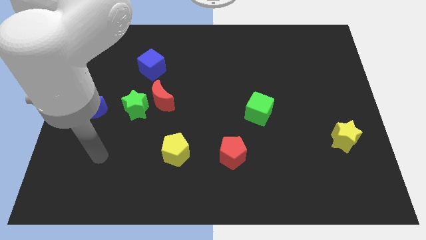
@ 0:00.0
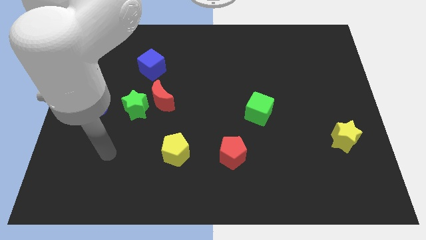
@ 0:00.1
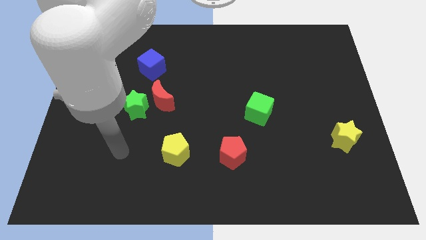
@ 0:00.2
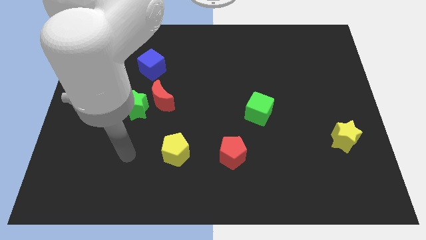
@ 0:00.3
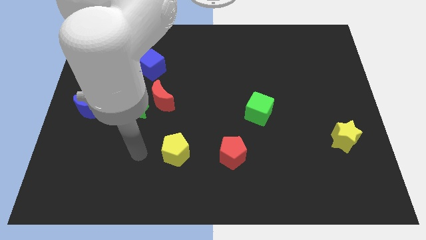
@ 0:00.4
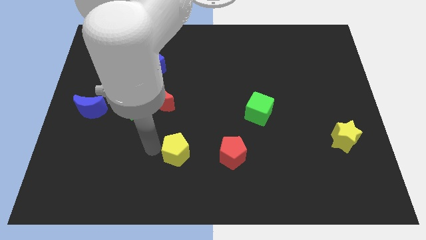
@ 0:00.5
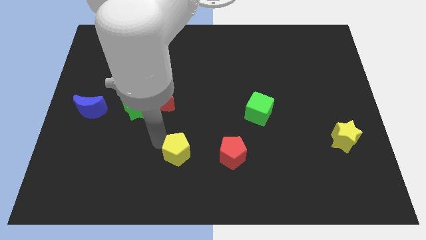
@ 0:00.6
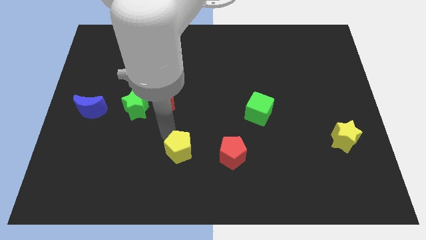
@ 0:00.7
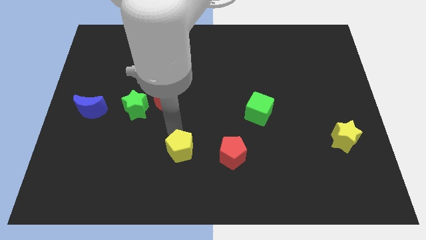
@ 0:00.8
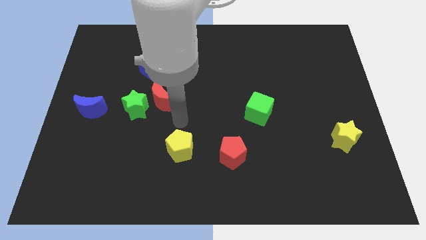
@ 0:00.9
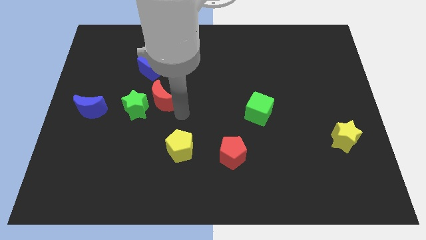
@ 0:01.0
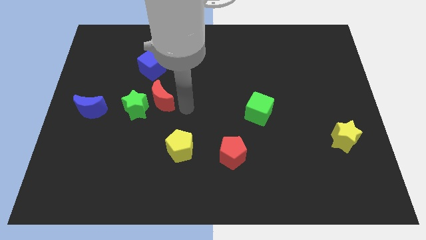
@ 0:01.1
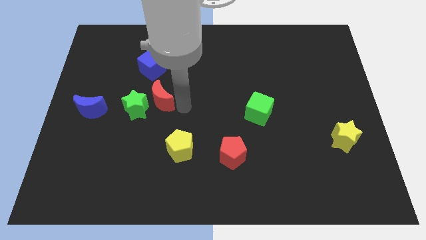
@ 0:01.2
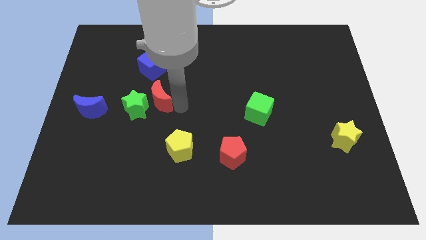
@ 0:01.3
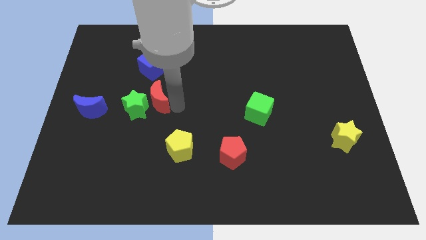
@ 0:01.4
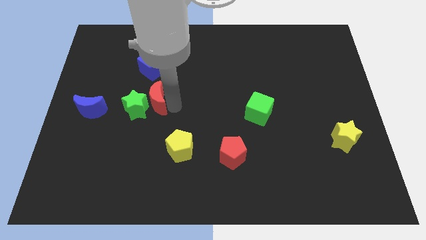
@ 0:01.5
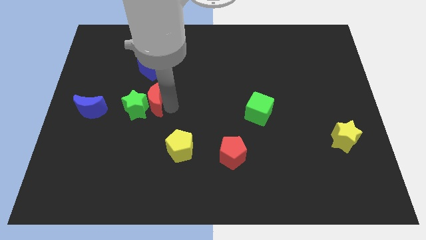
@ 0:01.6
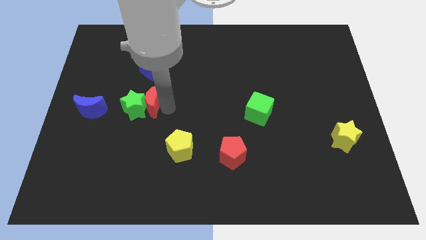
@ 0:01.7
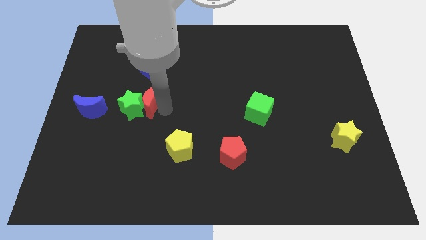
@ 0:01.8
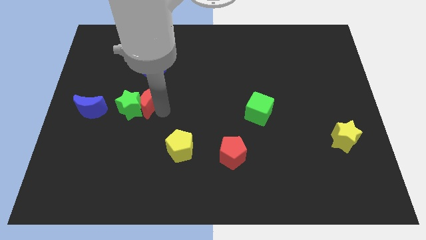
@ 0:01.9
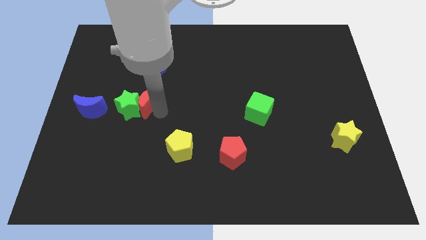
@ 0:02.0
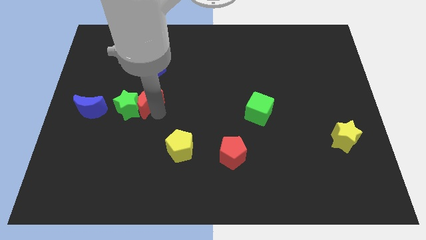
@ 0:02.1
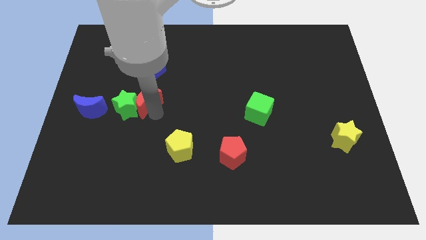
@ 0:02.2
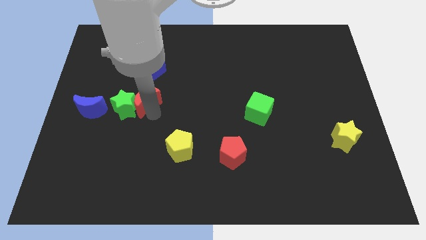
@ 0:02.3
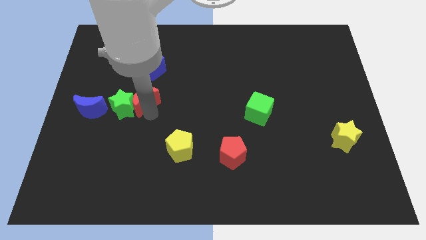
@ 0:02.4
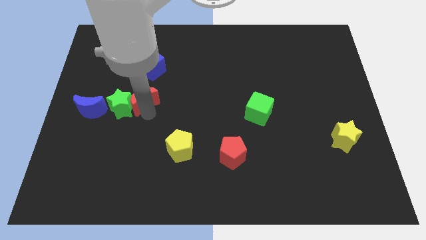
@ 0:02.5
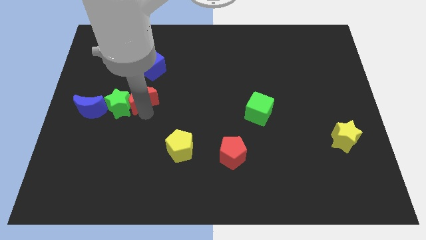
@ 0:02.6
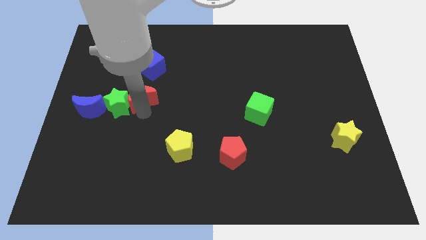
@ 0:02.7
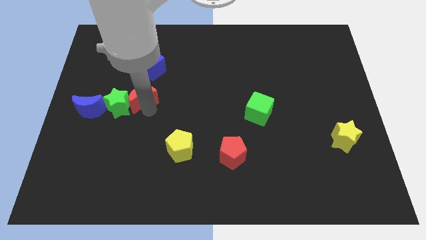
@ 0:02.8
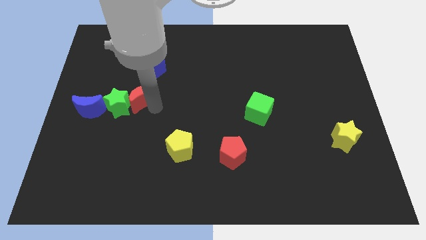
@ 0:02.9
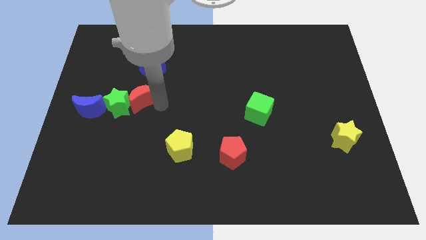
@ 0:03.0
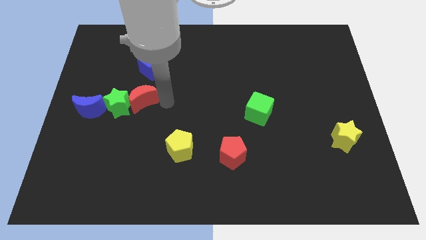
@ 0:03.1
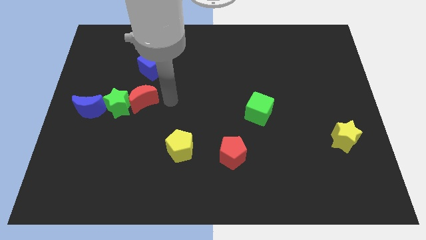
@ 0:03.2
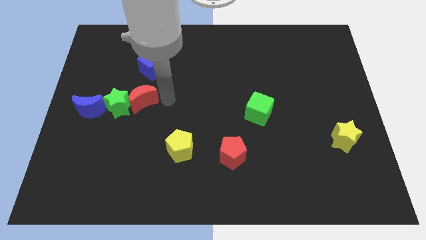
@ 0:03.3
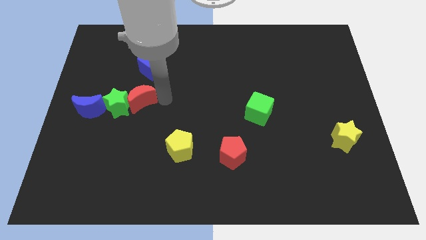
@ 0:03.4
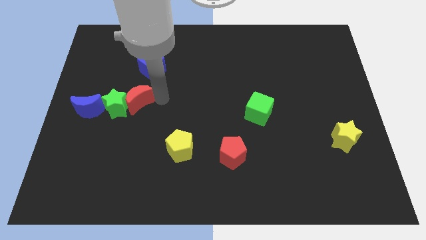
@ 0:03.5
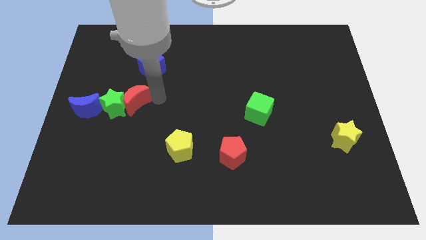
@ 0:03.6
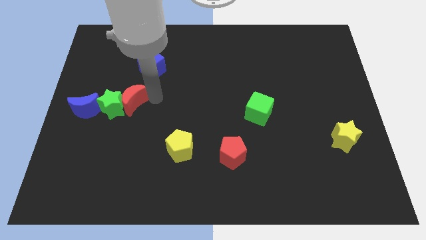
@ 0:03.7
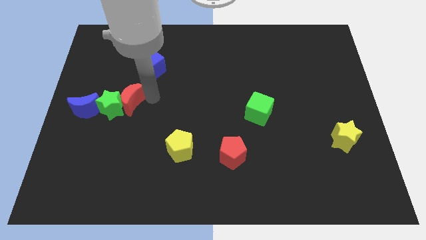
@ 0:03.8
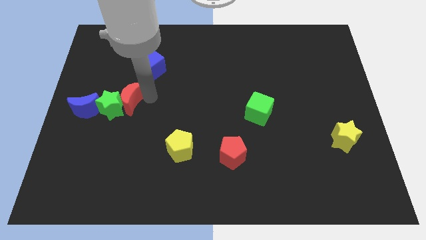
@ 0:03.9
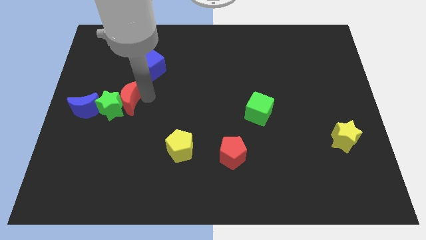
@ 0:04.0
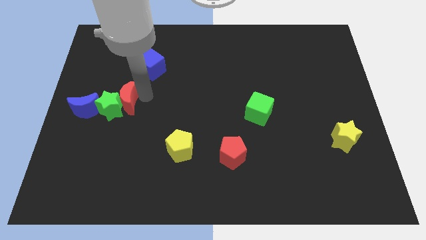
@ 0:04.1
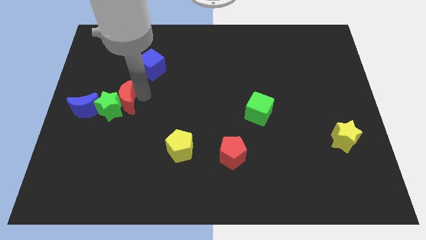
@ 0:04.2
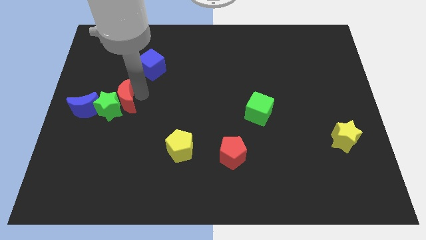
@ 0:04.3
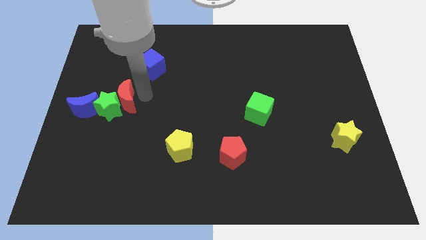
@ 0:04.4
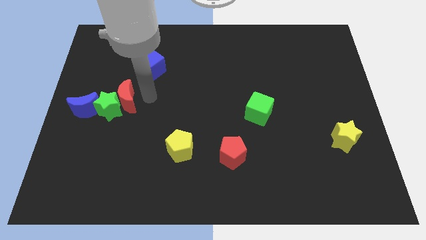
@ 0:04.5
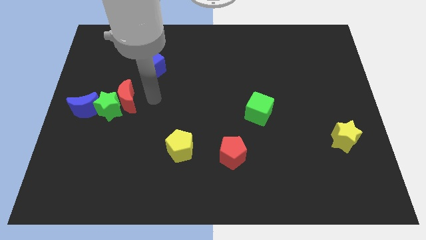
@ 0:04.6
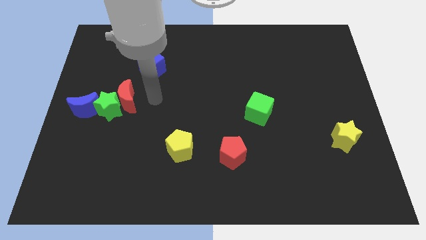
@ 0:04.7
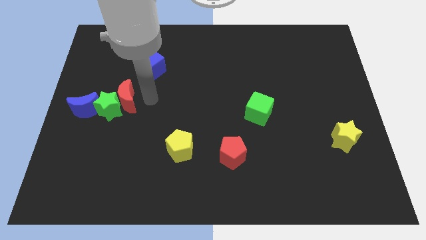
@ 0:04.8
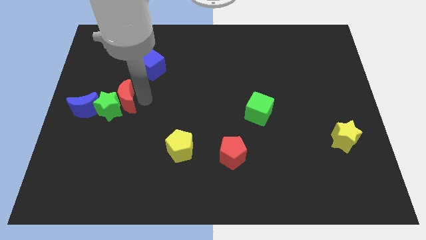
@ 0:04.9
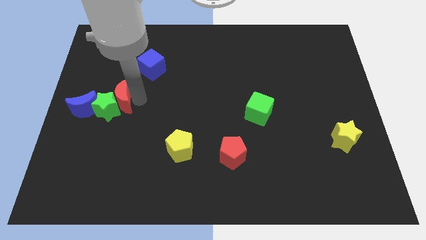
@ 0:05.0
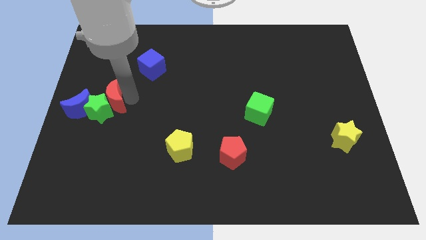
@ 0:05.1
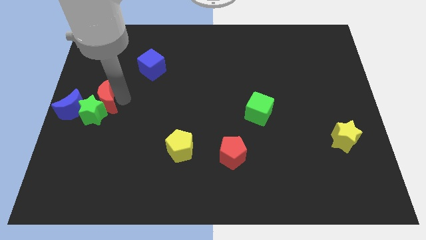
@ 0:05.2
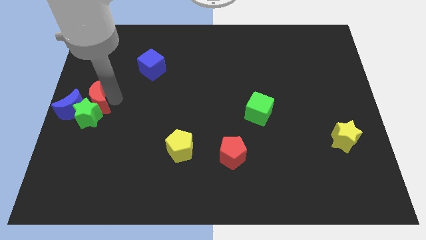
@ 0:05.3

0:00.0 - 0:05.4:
put the red moon next to the blue moon
